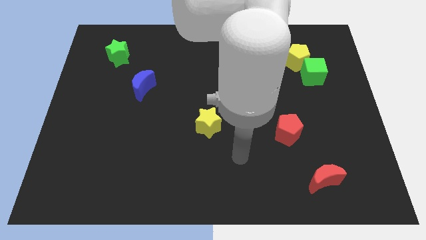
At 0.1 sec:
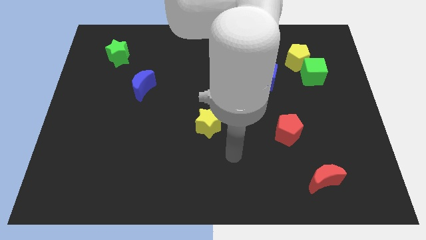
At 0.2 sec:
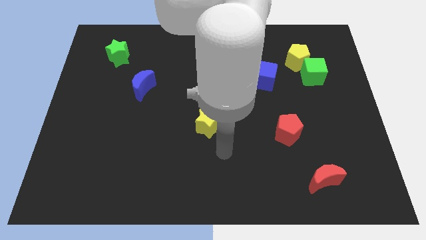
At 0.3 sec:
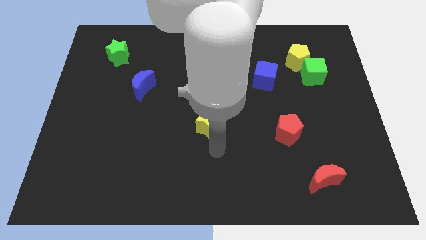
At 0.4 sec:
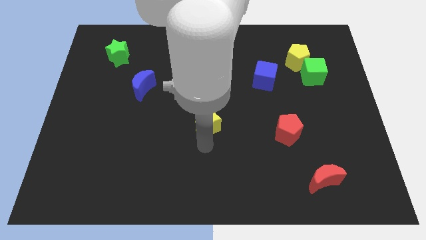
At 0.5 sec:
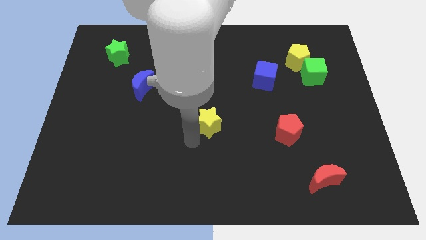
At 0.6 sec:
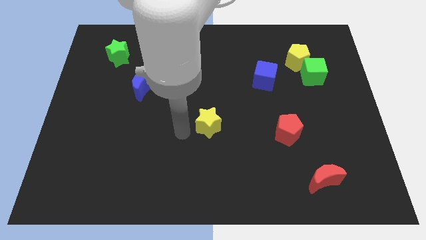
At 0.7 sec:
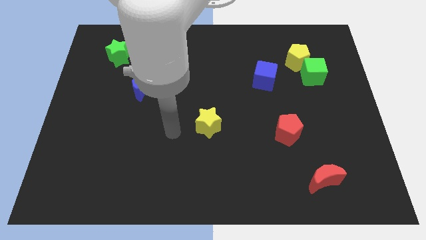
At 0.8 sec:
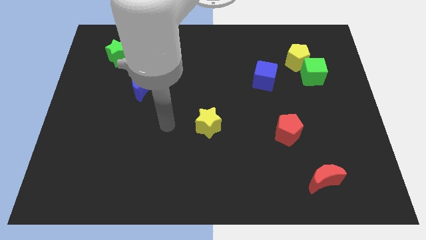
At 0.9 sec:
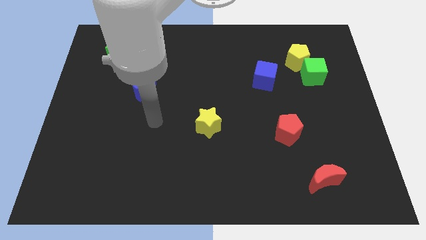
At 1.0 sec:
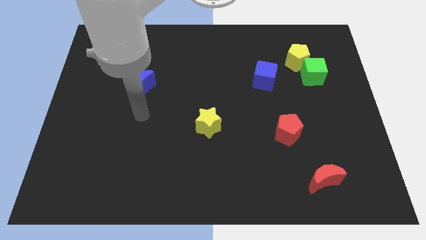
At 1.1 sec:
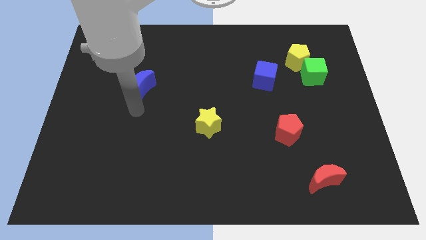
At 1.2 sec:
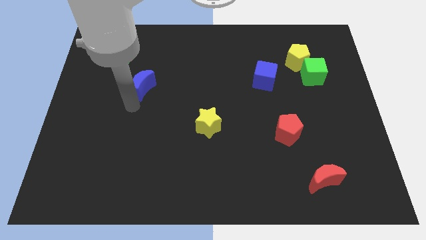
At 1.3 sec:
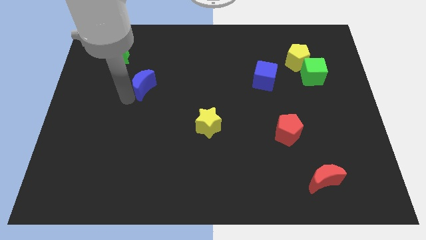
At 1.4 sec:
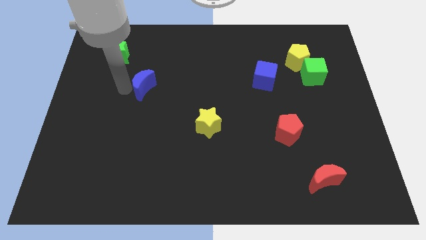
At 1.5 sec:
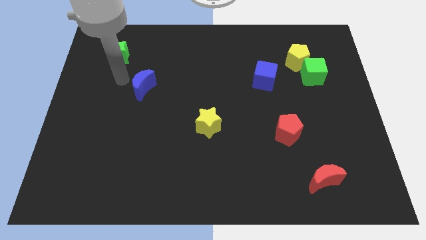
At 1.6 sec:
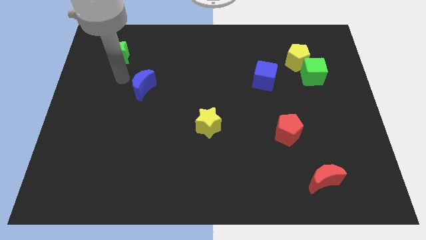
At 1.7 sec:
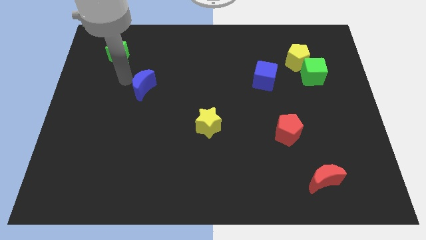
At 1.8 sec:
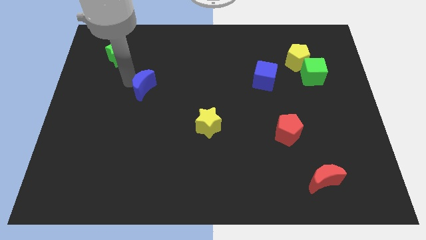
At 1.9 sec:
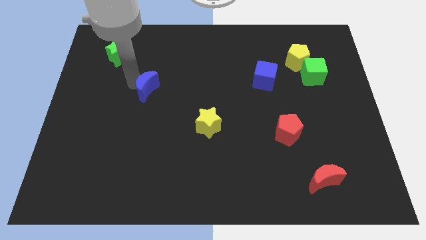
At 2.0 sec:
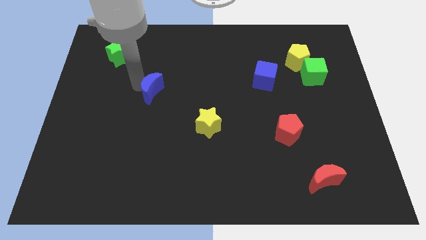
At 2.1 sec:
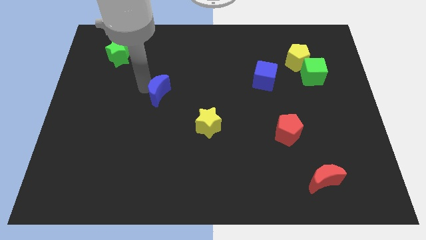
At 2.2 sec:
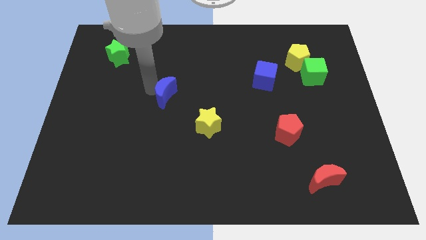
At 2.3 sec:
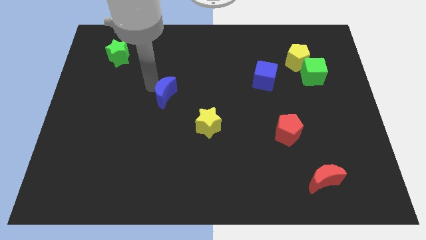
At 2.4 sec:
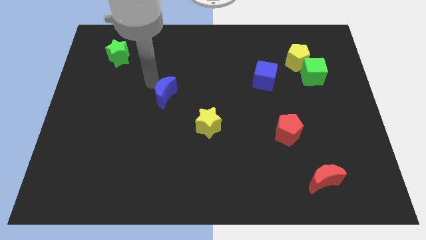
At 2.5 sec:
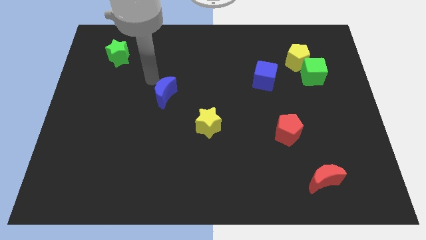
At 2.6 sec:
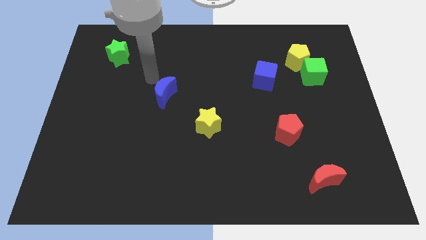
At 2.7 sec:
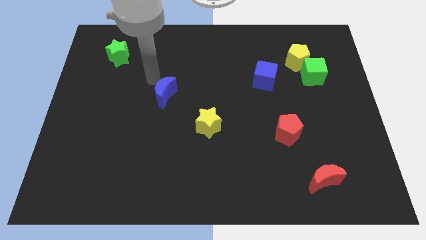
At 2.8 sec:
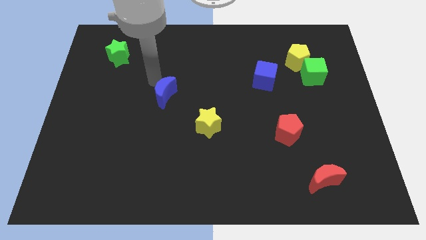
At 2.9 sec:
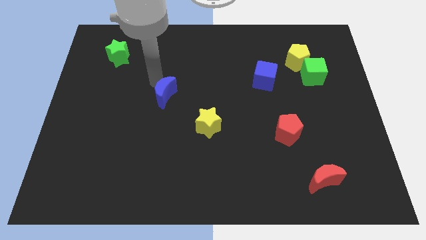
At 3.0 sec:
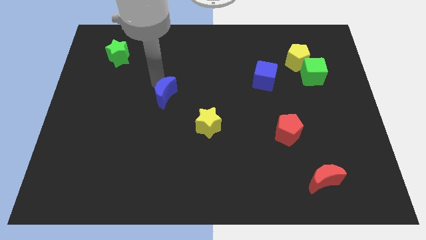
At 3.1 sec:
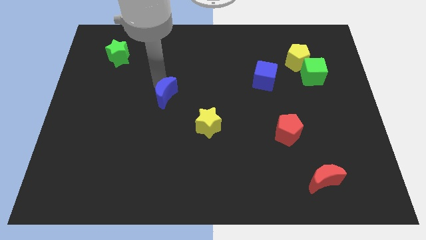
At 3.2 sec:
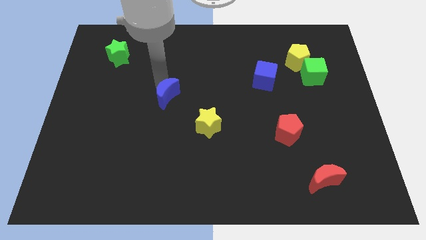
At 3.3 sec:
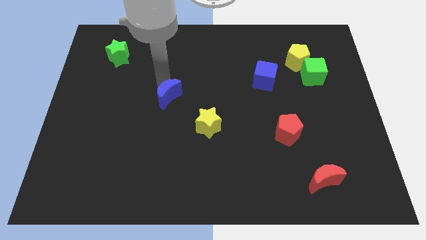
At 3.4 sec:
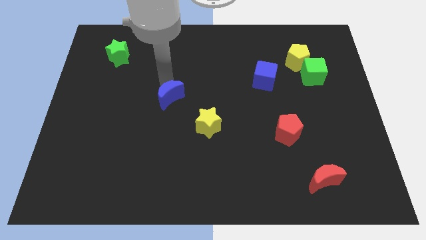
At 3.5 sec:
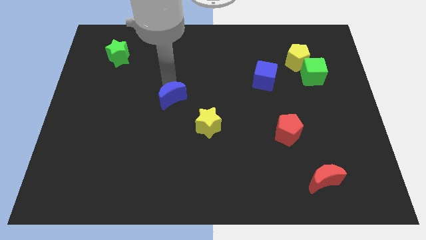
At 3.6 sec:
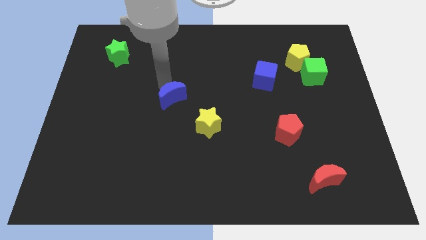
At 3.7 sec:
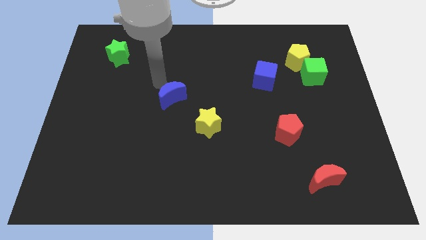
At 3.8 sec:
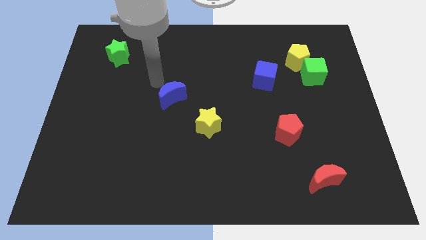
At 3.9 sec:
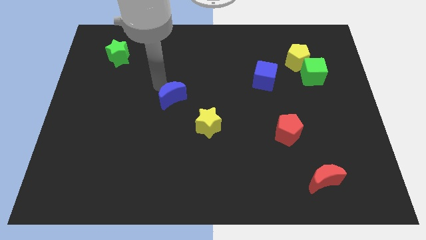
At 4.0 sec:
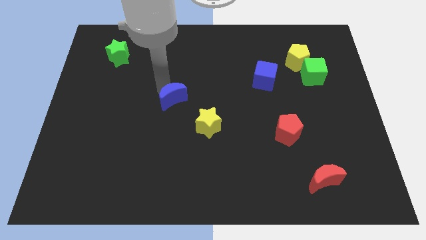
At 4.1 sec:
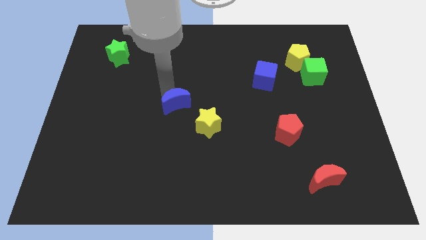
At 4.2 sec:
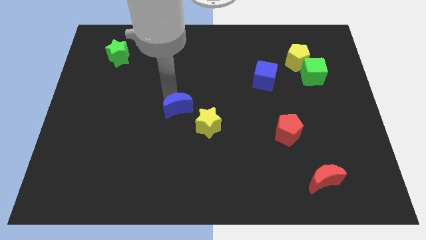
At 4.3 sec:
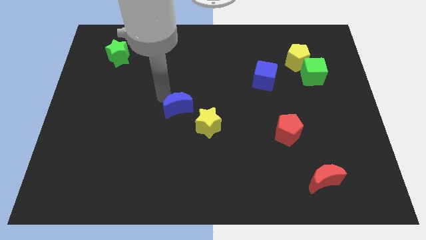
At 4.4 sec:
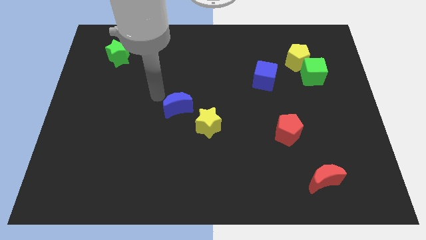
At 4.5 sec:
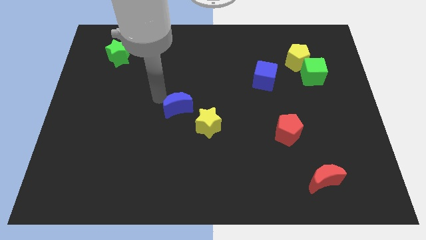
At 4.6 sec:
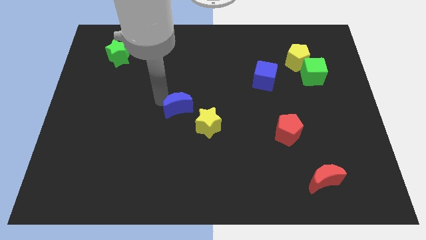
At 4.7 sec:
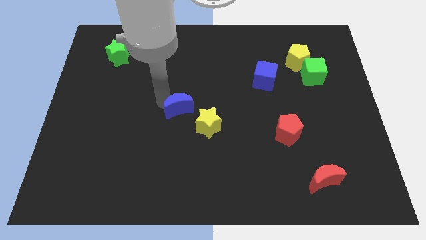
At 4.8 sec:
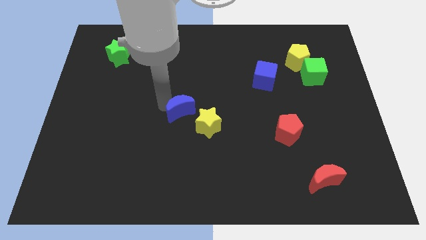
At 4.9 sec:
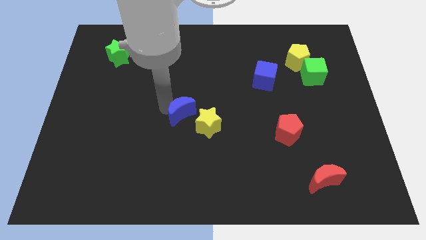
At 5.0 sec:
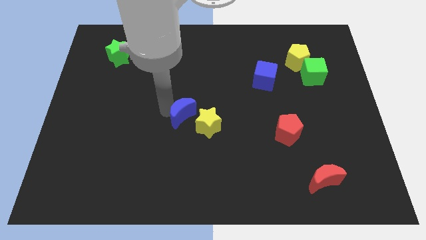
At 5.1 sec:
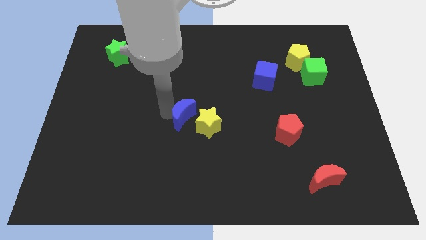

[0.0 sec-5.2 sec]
push the blue moon to the yellow star

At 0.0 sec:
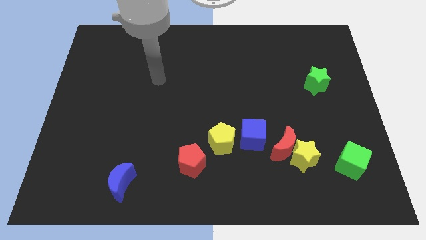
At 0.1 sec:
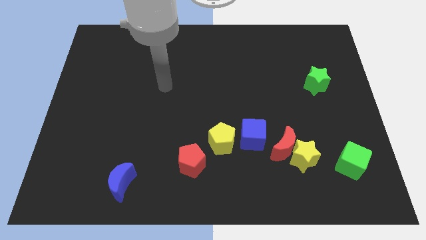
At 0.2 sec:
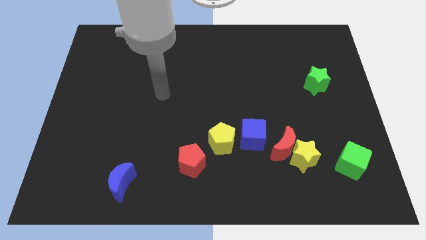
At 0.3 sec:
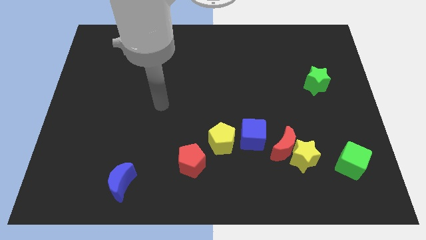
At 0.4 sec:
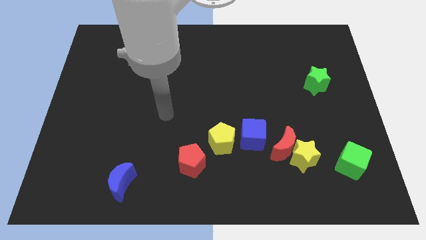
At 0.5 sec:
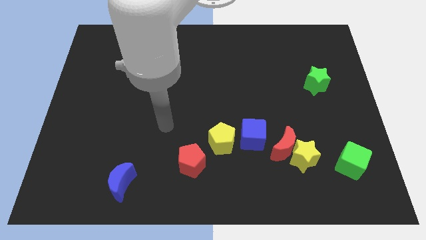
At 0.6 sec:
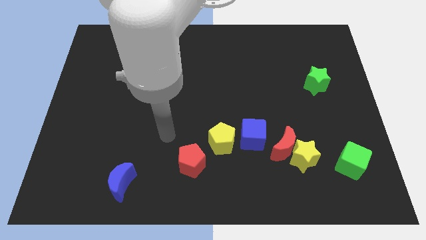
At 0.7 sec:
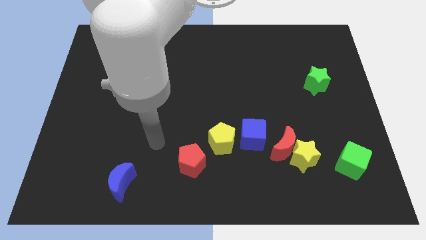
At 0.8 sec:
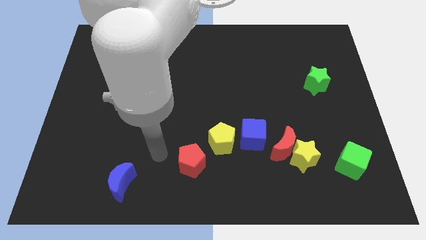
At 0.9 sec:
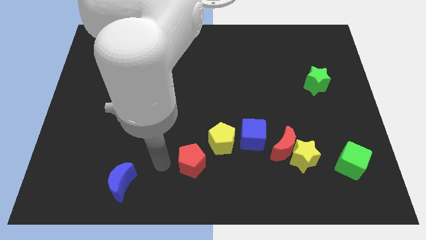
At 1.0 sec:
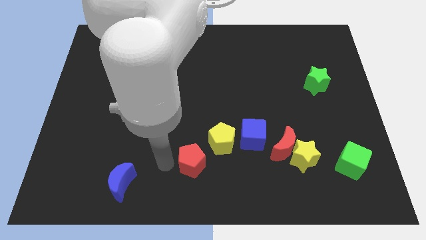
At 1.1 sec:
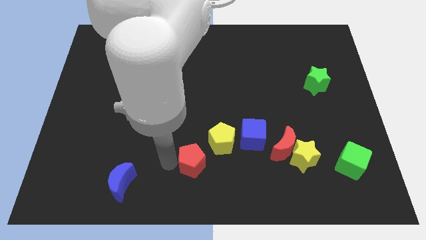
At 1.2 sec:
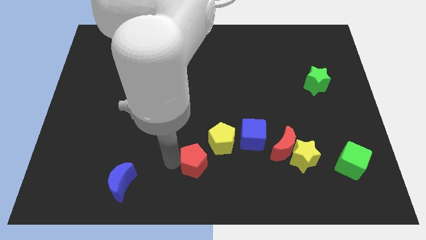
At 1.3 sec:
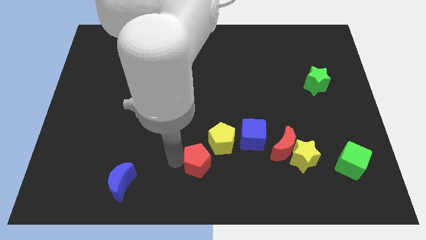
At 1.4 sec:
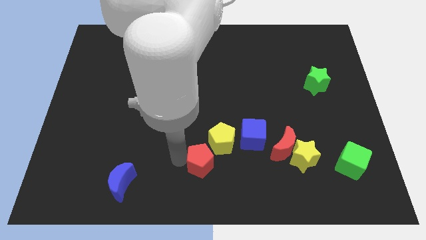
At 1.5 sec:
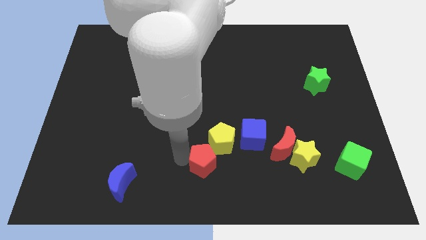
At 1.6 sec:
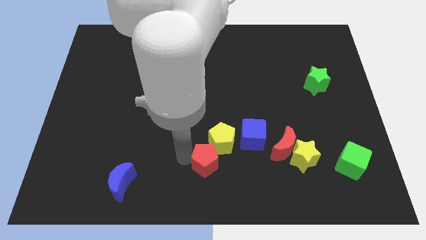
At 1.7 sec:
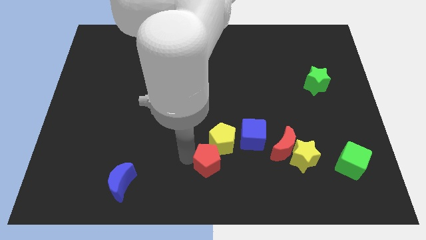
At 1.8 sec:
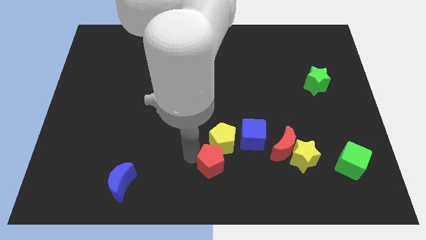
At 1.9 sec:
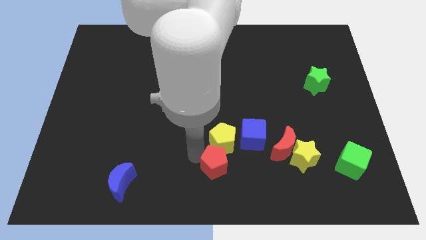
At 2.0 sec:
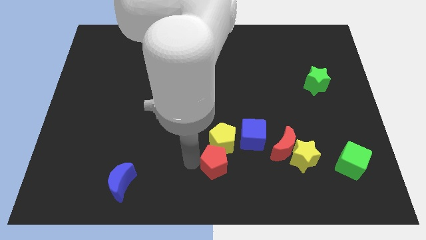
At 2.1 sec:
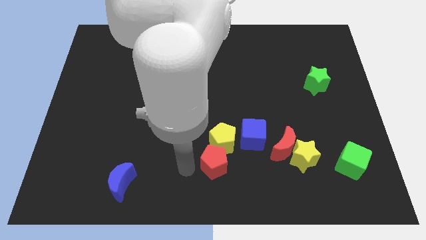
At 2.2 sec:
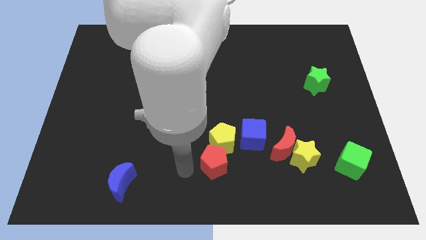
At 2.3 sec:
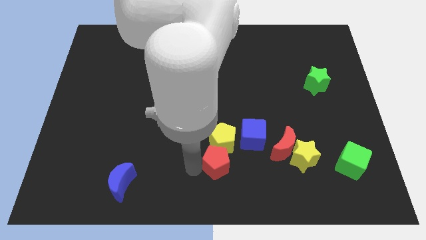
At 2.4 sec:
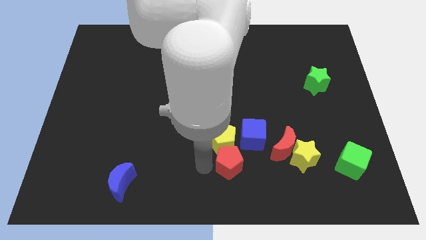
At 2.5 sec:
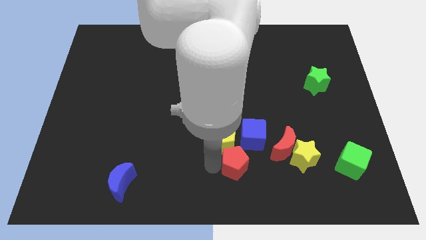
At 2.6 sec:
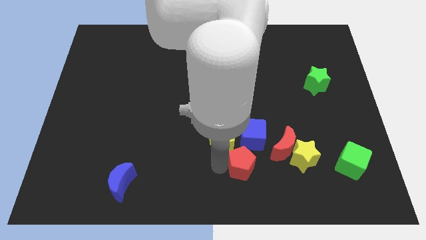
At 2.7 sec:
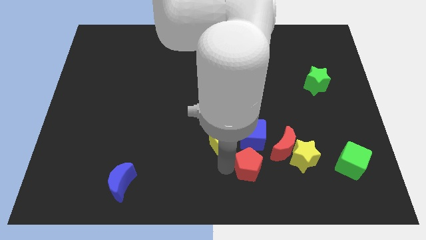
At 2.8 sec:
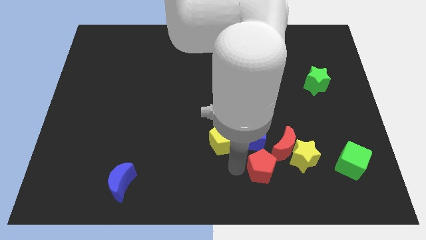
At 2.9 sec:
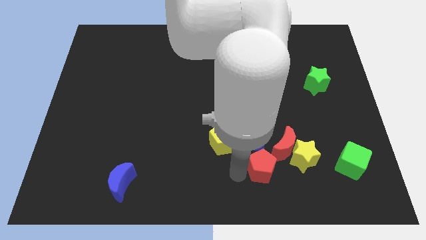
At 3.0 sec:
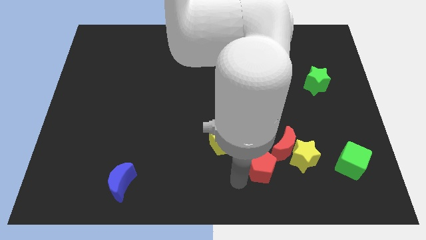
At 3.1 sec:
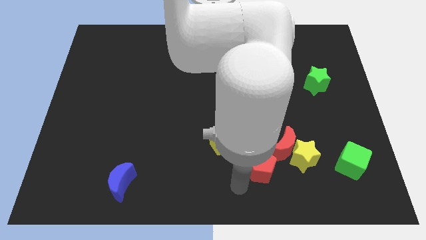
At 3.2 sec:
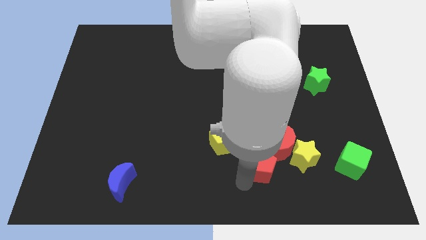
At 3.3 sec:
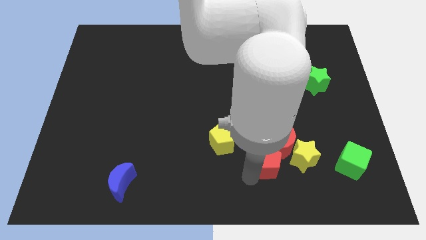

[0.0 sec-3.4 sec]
slide the red pentagon towards the red moon
